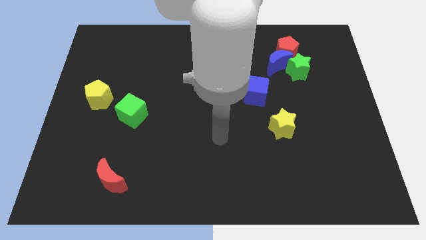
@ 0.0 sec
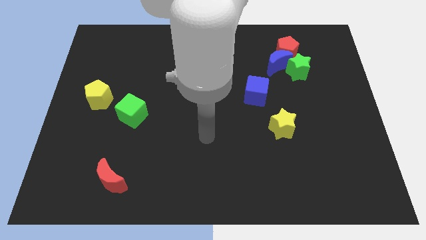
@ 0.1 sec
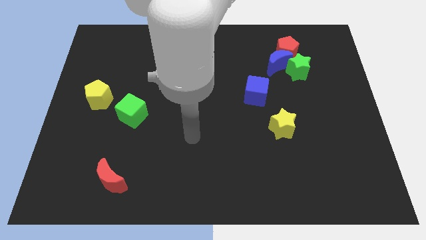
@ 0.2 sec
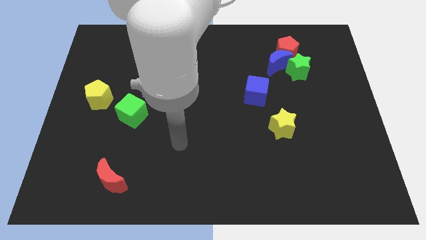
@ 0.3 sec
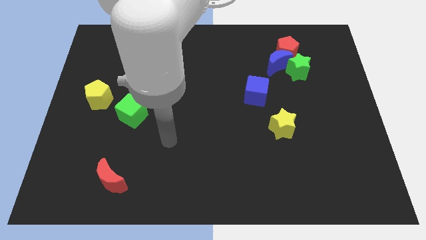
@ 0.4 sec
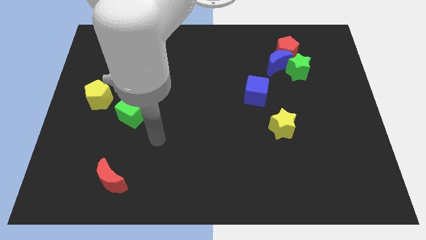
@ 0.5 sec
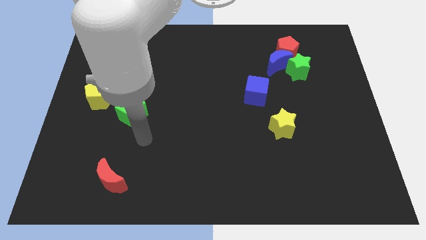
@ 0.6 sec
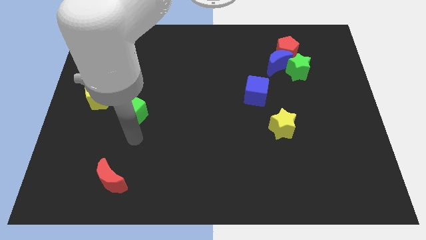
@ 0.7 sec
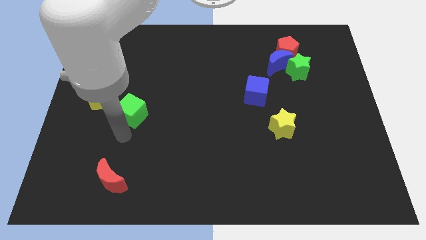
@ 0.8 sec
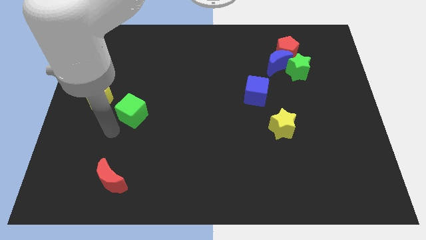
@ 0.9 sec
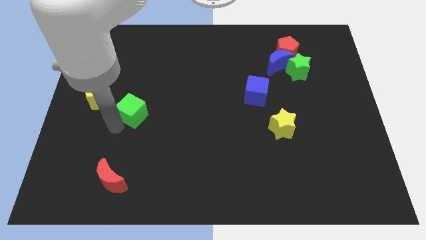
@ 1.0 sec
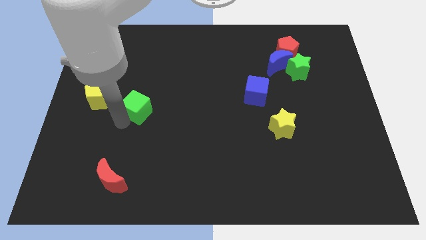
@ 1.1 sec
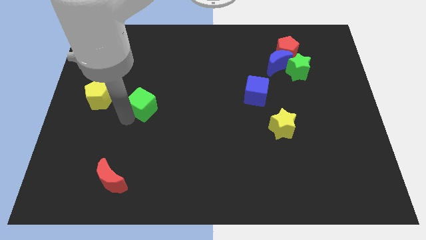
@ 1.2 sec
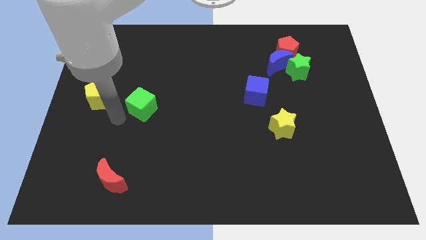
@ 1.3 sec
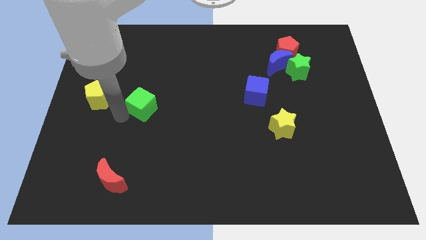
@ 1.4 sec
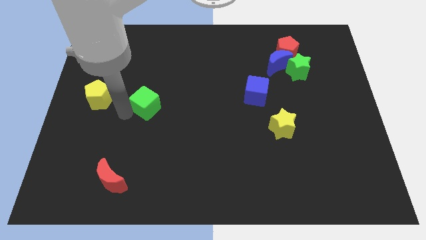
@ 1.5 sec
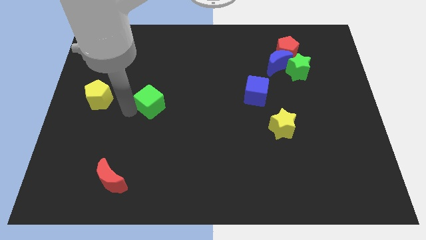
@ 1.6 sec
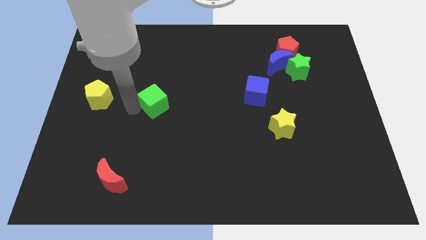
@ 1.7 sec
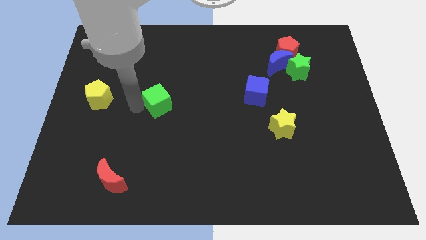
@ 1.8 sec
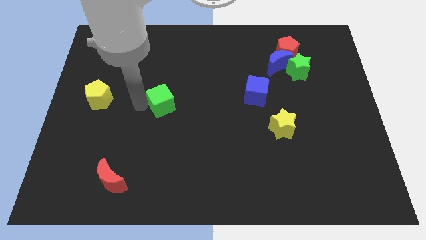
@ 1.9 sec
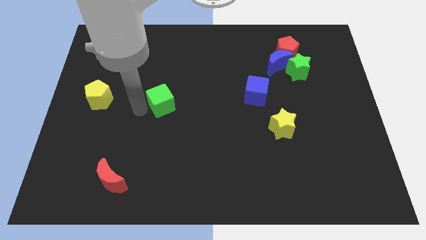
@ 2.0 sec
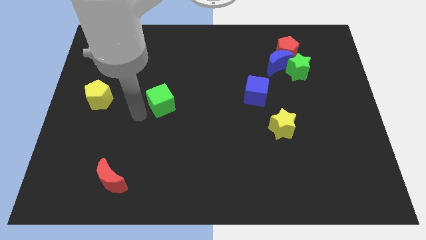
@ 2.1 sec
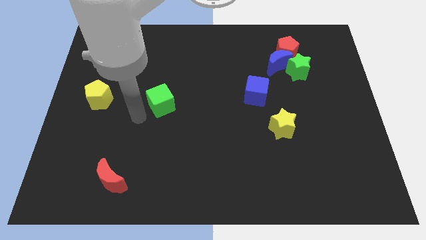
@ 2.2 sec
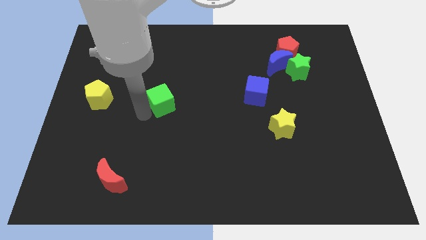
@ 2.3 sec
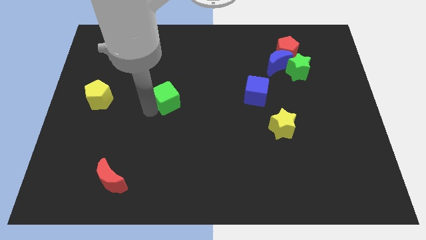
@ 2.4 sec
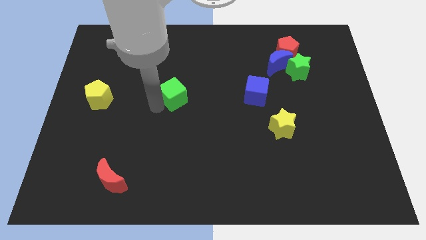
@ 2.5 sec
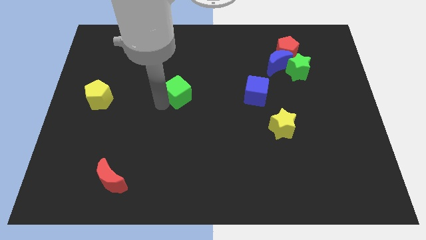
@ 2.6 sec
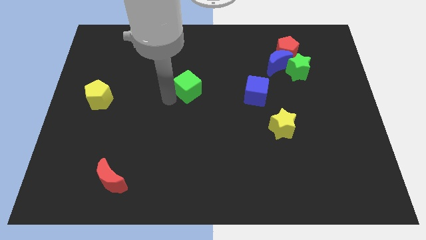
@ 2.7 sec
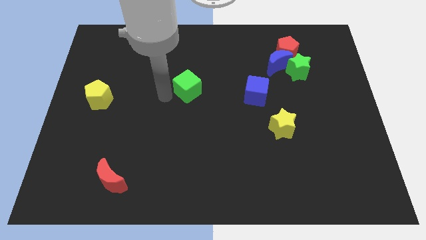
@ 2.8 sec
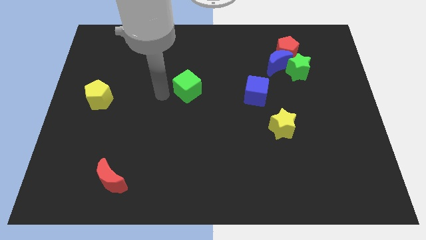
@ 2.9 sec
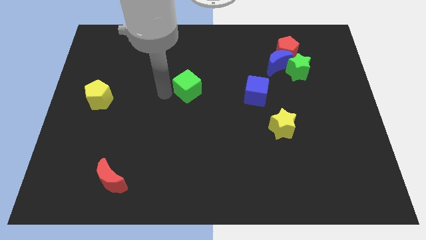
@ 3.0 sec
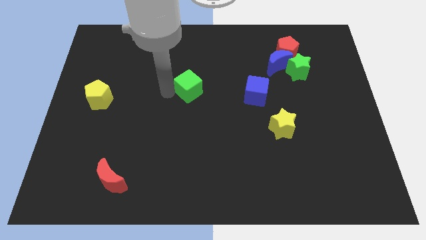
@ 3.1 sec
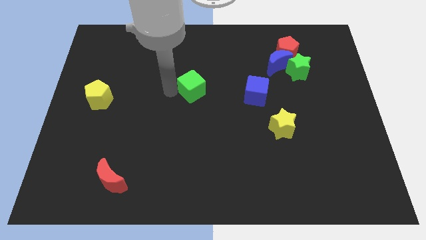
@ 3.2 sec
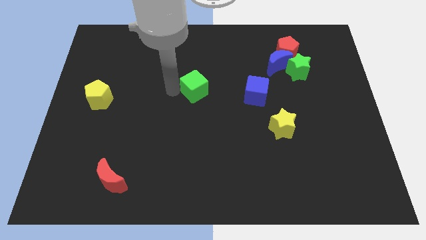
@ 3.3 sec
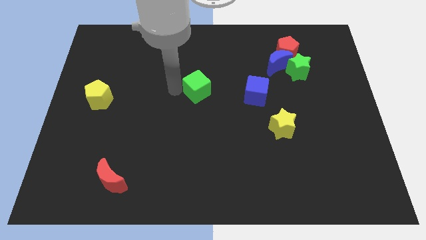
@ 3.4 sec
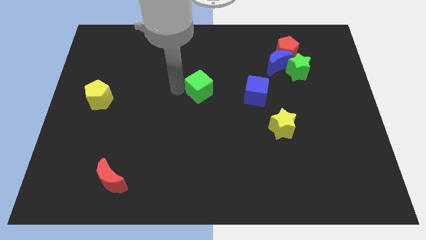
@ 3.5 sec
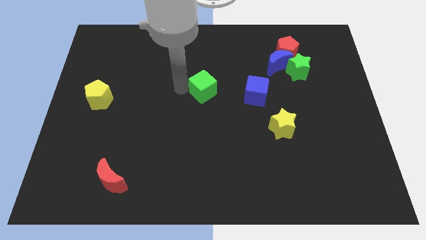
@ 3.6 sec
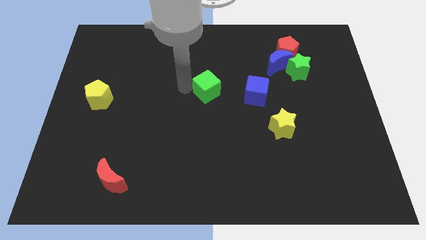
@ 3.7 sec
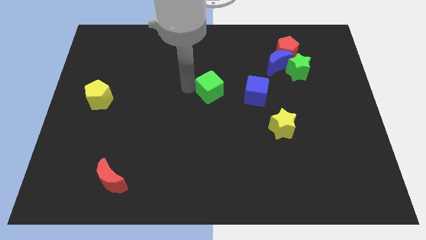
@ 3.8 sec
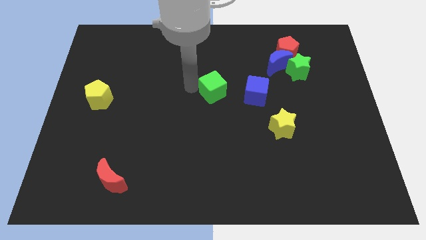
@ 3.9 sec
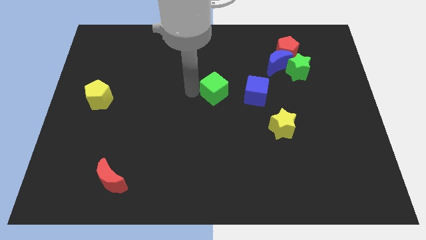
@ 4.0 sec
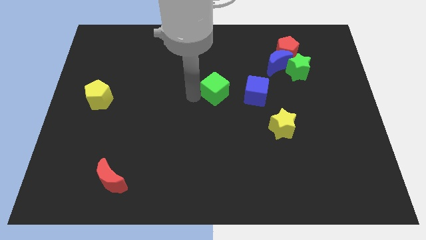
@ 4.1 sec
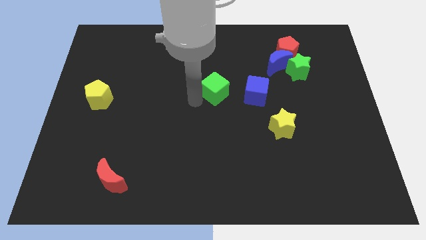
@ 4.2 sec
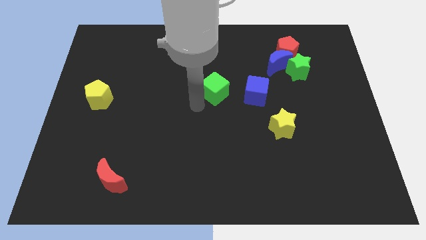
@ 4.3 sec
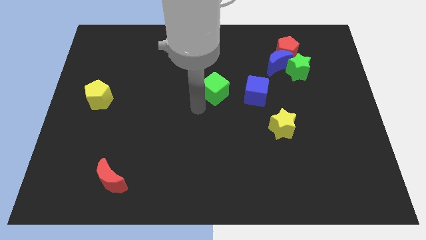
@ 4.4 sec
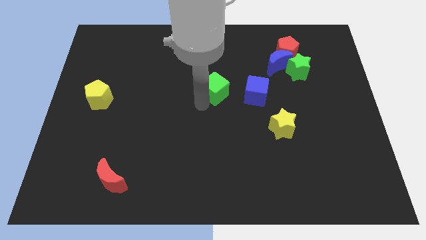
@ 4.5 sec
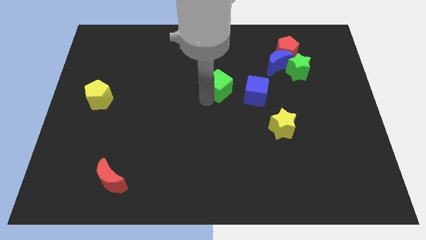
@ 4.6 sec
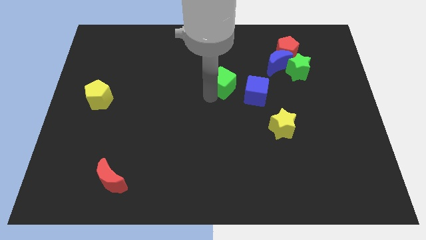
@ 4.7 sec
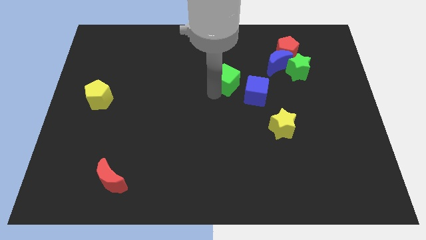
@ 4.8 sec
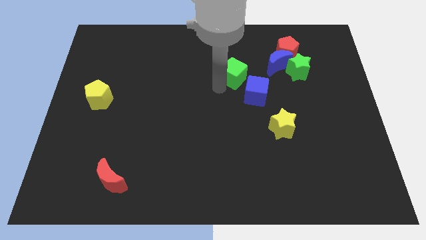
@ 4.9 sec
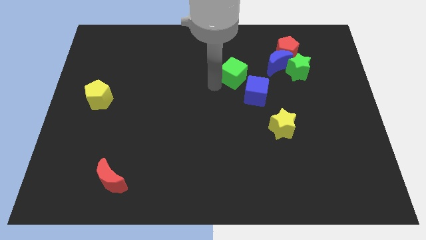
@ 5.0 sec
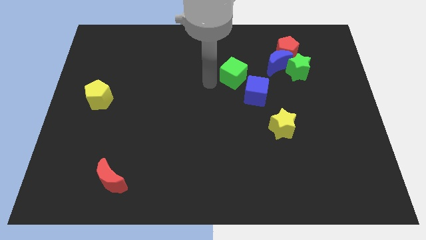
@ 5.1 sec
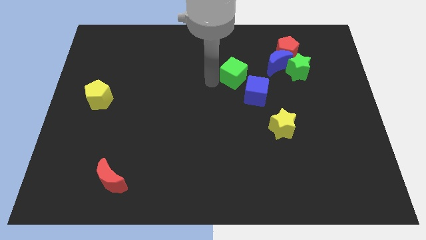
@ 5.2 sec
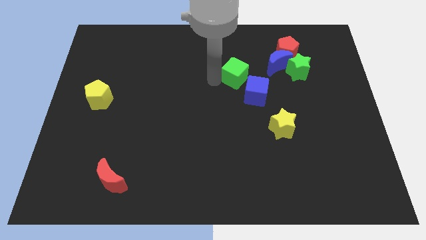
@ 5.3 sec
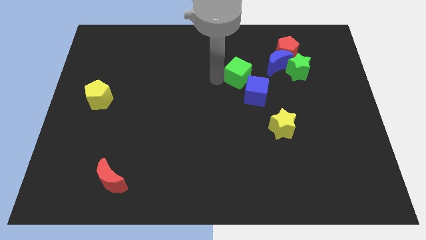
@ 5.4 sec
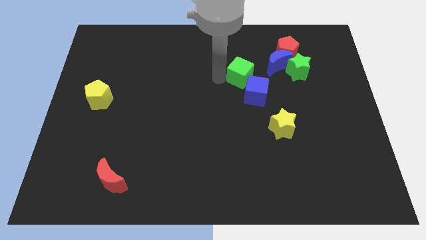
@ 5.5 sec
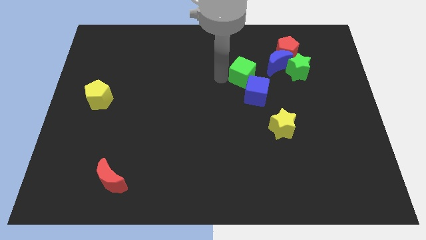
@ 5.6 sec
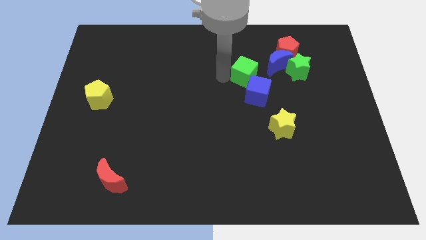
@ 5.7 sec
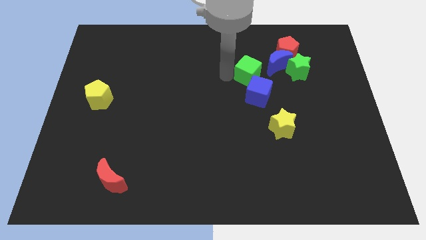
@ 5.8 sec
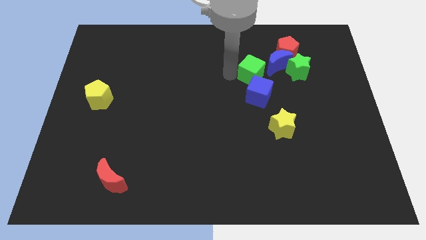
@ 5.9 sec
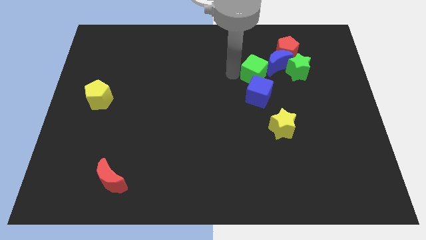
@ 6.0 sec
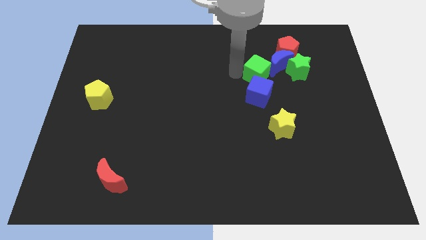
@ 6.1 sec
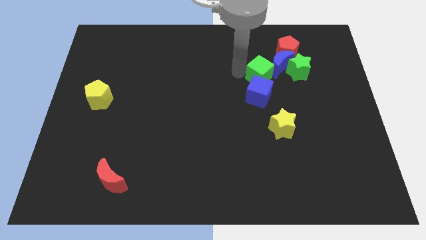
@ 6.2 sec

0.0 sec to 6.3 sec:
move the green cube next to the blue moon

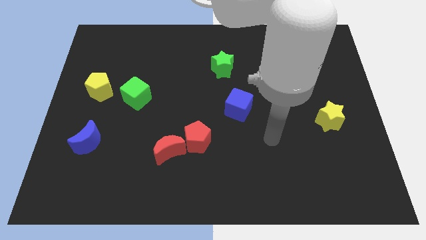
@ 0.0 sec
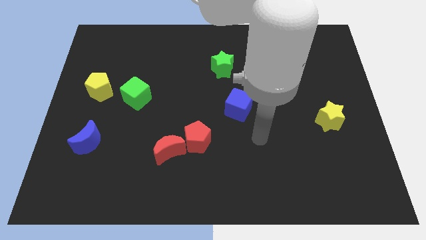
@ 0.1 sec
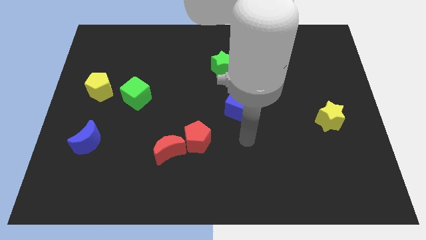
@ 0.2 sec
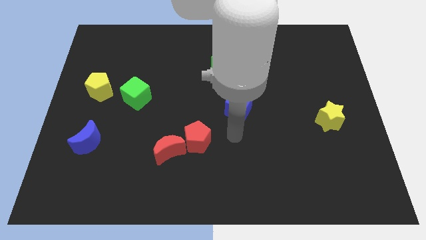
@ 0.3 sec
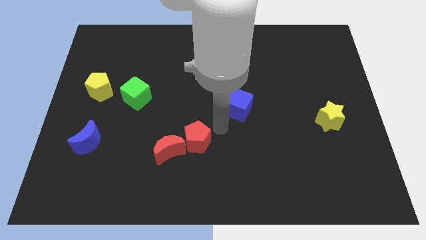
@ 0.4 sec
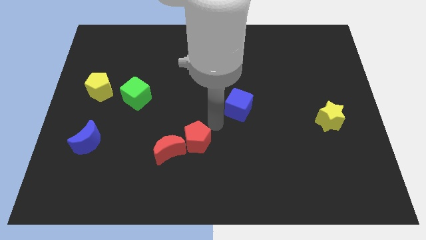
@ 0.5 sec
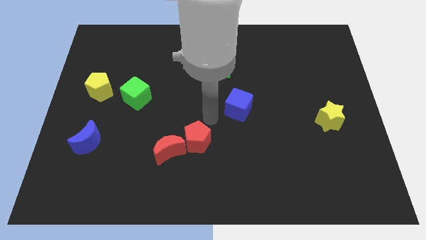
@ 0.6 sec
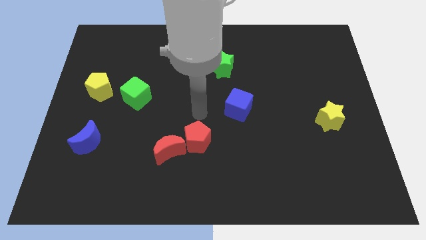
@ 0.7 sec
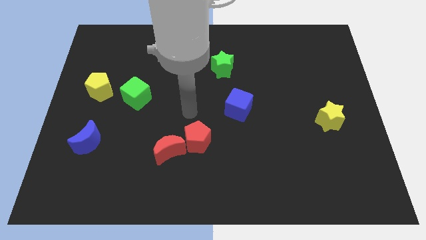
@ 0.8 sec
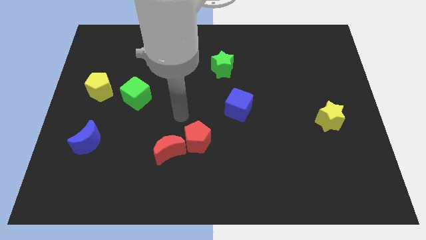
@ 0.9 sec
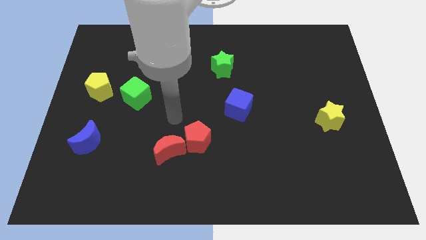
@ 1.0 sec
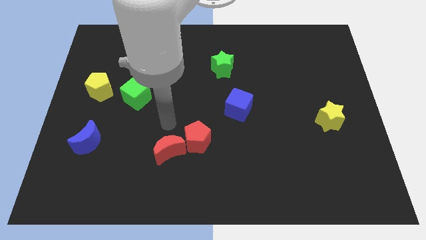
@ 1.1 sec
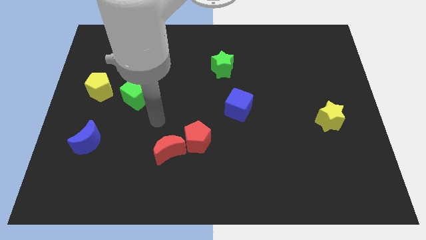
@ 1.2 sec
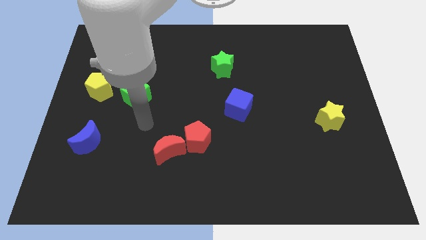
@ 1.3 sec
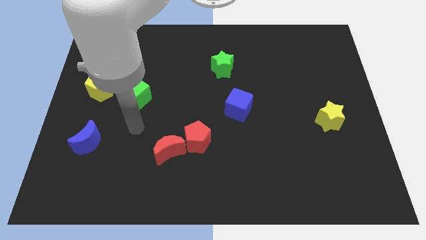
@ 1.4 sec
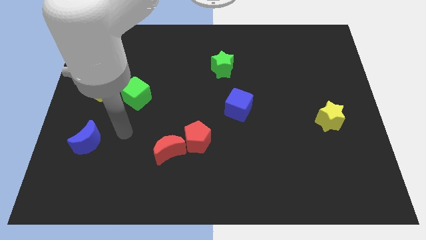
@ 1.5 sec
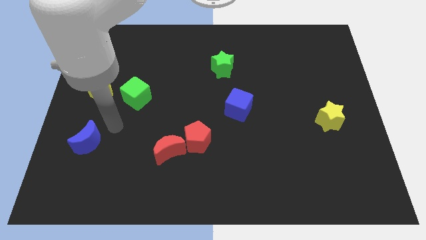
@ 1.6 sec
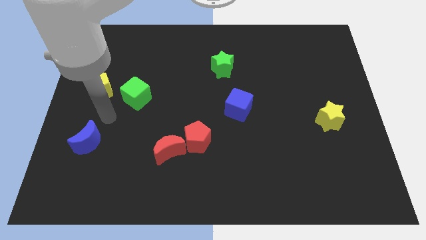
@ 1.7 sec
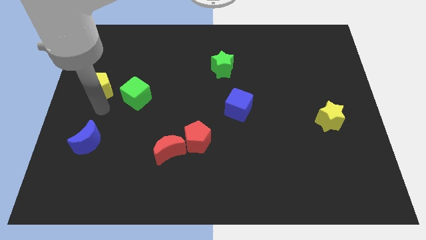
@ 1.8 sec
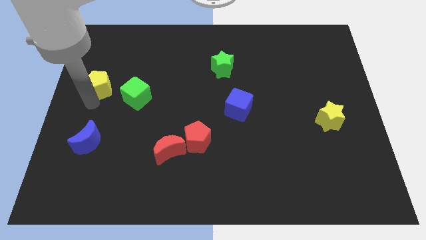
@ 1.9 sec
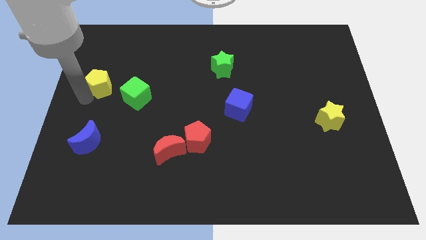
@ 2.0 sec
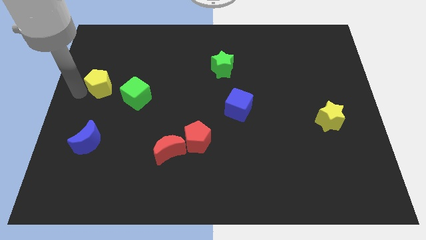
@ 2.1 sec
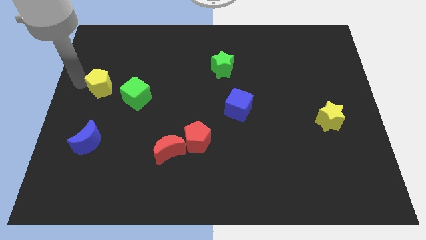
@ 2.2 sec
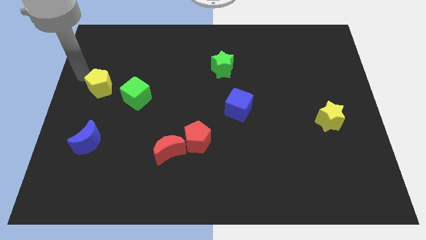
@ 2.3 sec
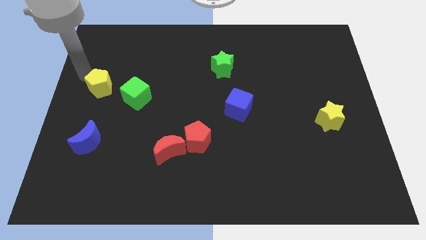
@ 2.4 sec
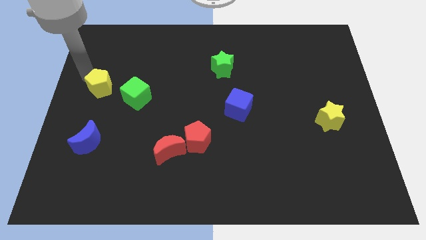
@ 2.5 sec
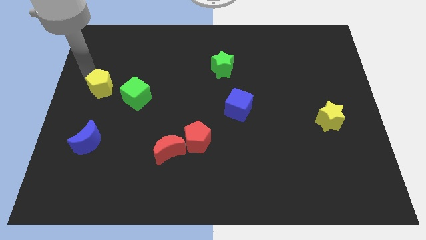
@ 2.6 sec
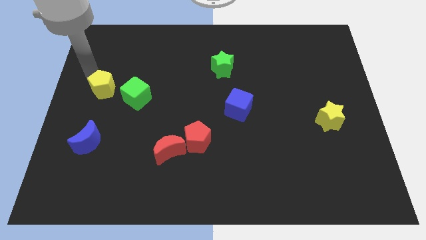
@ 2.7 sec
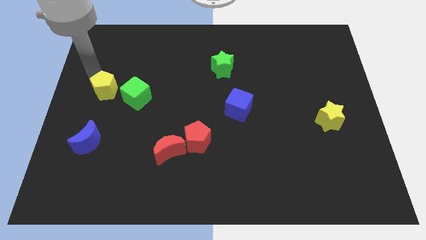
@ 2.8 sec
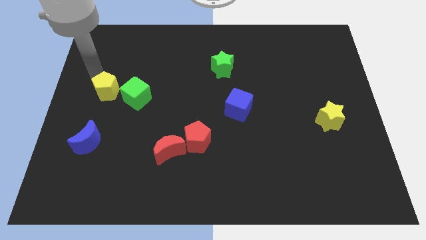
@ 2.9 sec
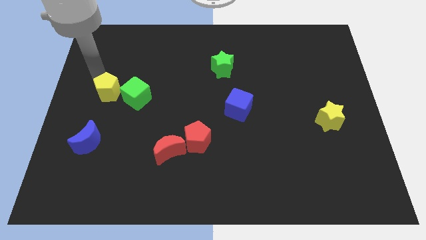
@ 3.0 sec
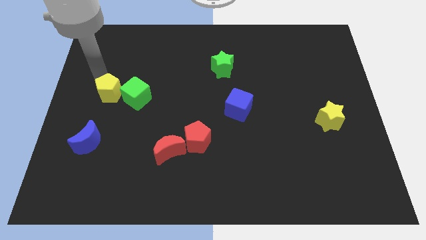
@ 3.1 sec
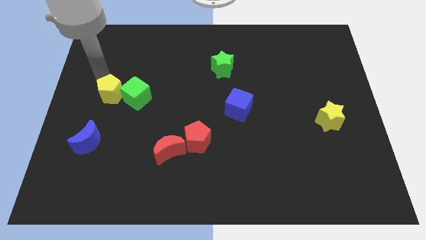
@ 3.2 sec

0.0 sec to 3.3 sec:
move the yellow pentagon next to the green cube
